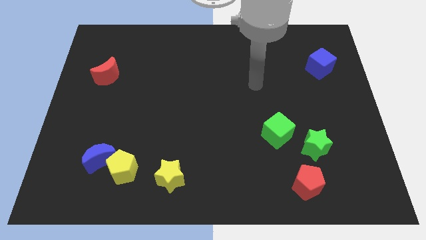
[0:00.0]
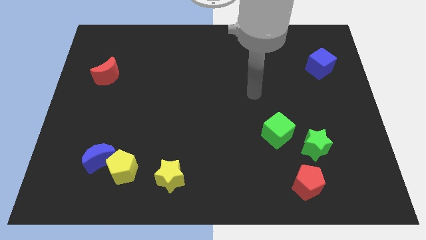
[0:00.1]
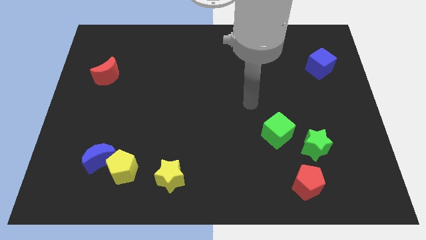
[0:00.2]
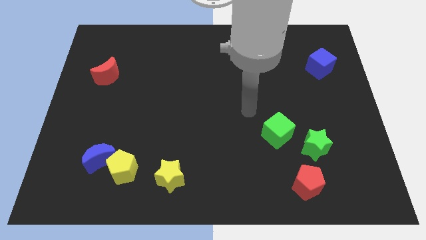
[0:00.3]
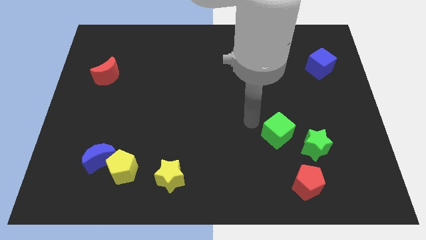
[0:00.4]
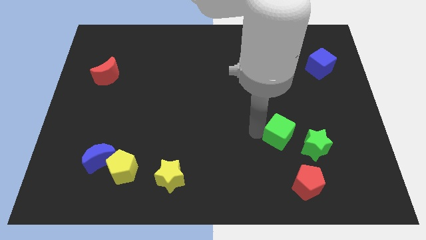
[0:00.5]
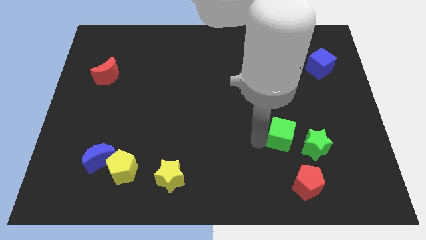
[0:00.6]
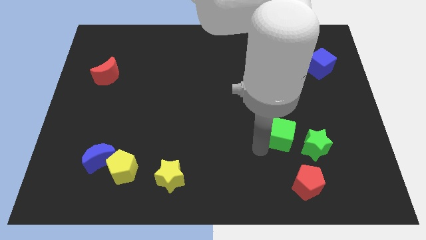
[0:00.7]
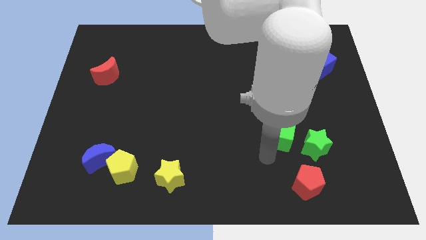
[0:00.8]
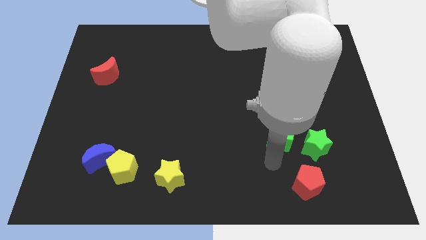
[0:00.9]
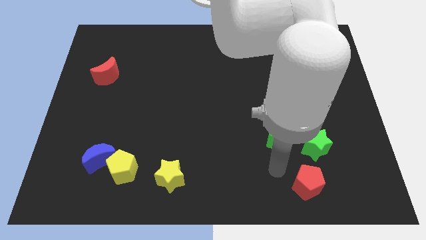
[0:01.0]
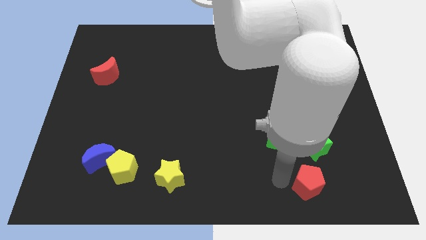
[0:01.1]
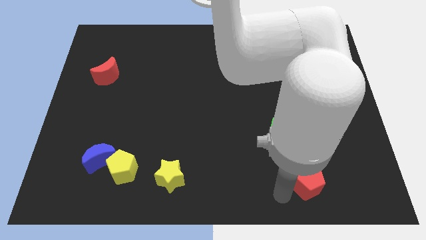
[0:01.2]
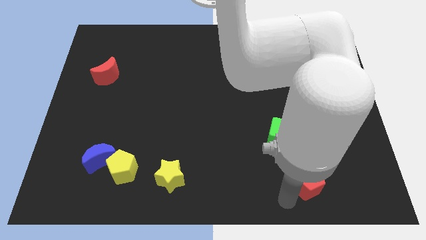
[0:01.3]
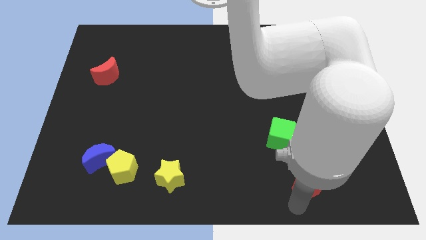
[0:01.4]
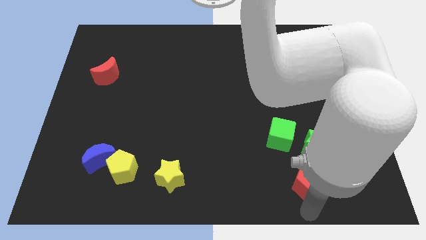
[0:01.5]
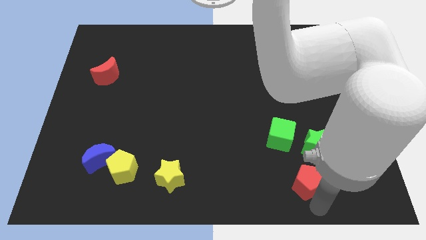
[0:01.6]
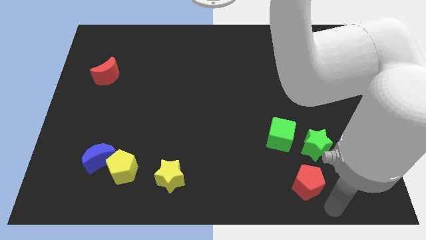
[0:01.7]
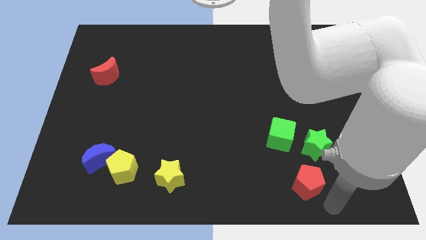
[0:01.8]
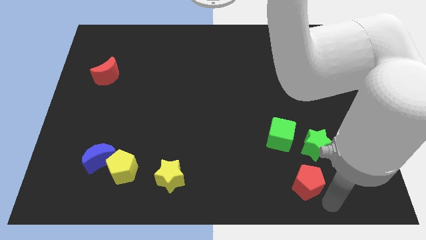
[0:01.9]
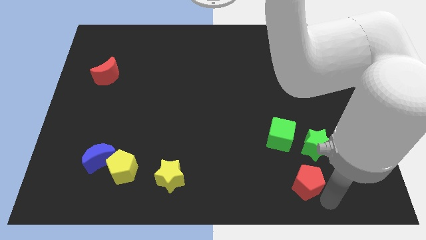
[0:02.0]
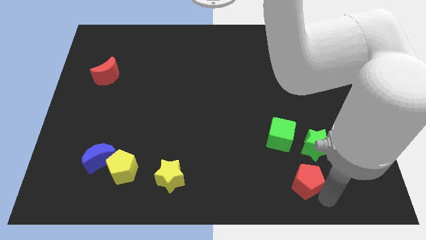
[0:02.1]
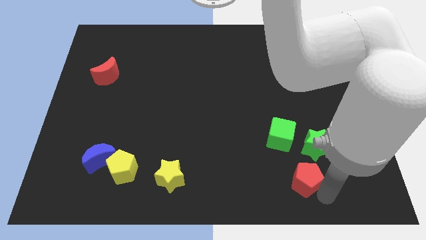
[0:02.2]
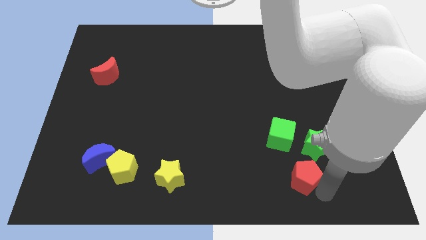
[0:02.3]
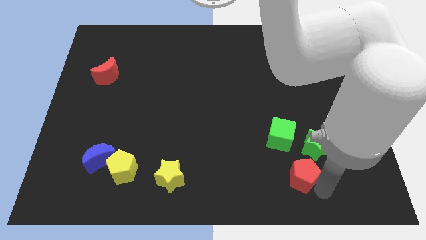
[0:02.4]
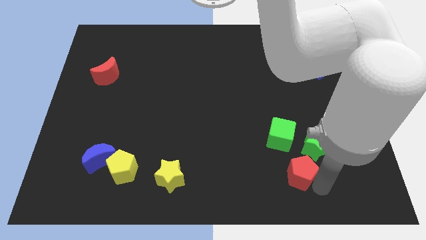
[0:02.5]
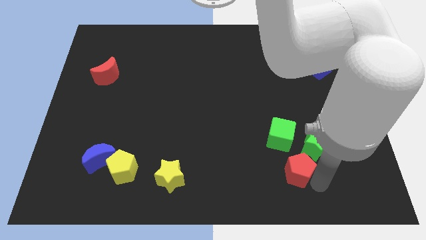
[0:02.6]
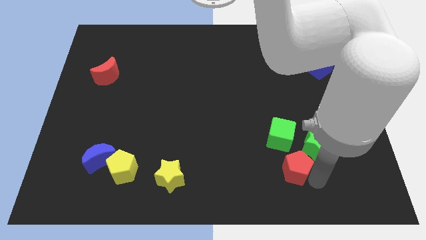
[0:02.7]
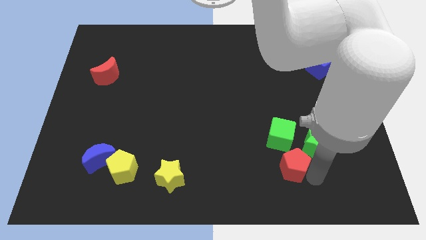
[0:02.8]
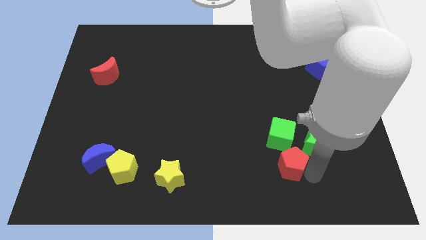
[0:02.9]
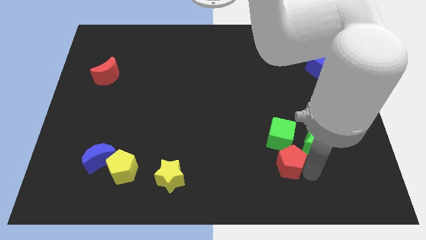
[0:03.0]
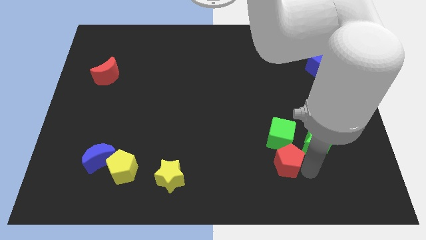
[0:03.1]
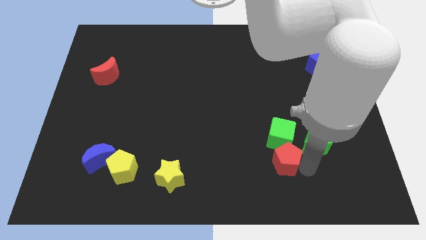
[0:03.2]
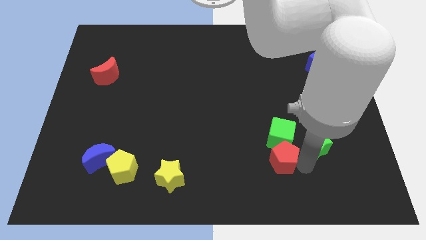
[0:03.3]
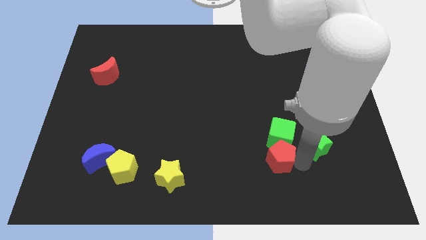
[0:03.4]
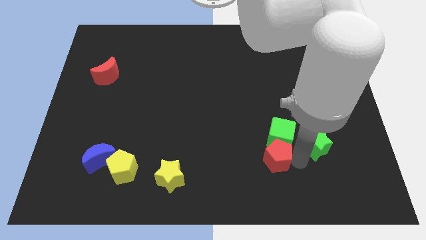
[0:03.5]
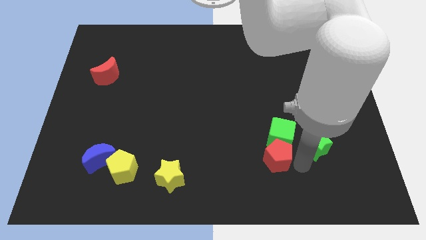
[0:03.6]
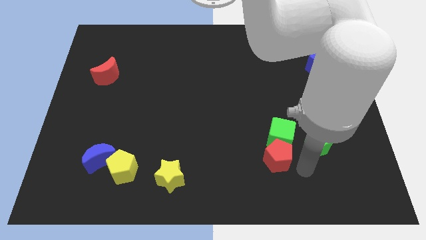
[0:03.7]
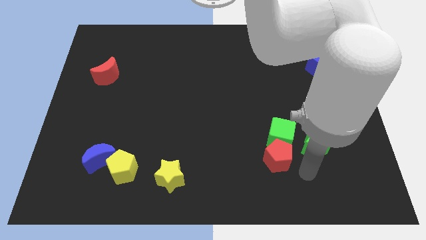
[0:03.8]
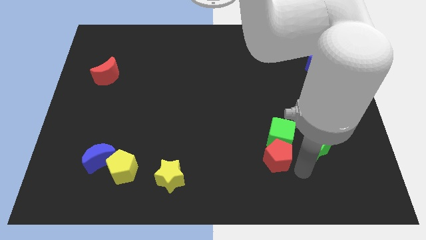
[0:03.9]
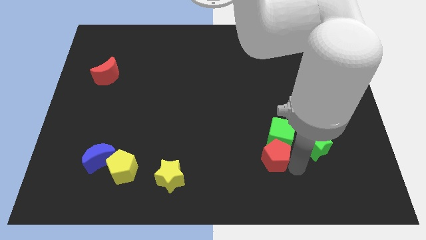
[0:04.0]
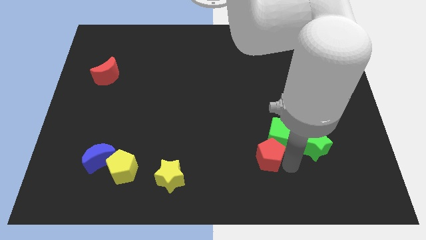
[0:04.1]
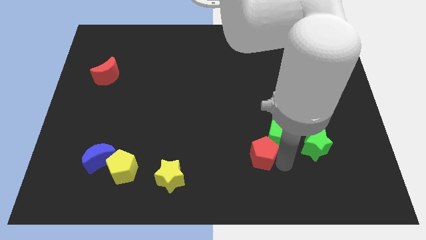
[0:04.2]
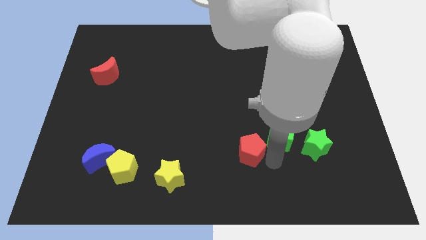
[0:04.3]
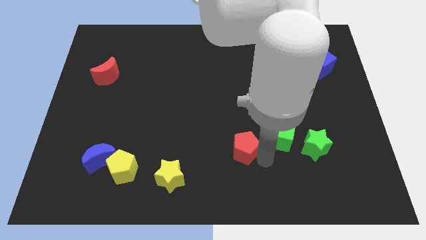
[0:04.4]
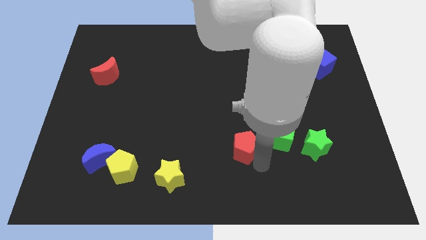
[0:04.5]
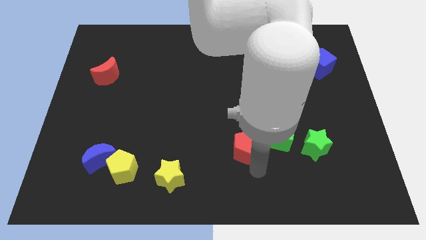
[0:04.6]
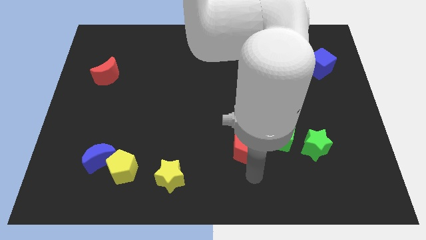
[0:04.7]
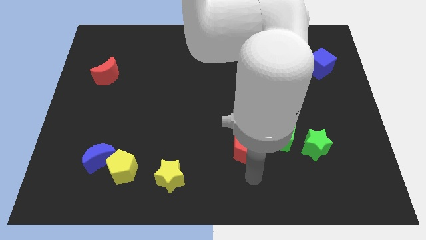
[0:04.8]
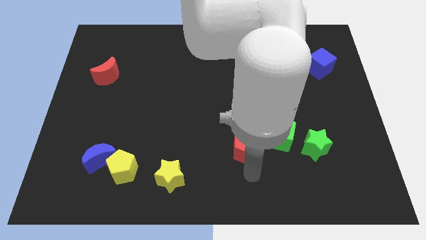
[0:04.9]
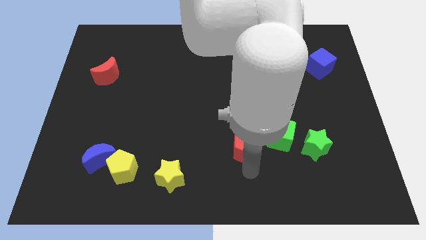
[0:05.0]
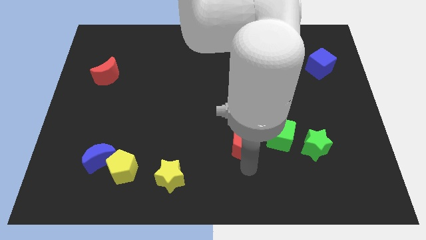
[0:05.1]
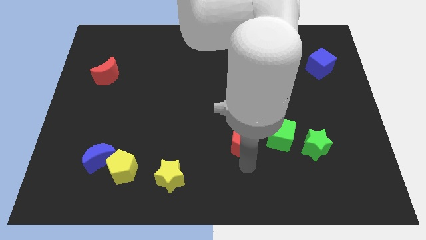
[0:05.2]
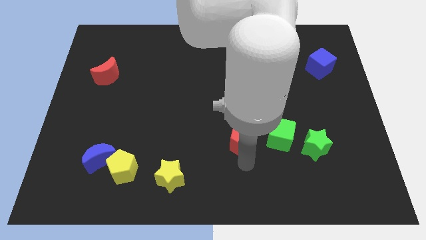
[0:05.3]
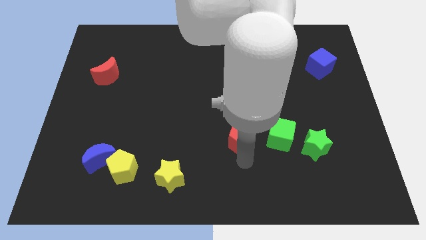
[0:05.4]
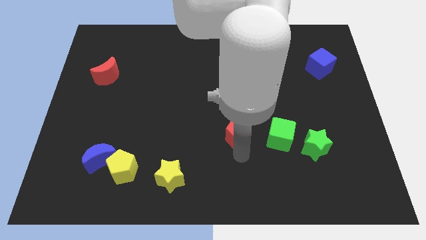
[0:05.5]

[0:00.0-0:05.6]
move the red pentagon to the middle of the board

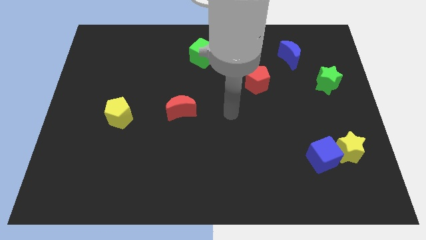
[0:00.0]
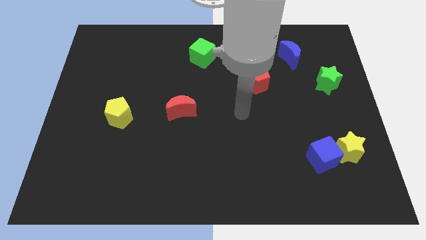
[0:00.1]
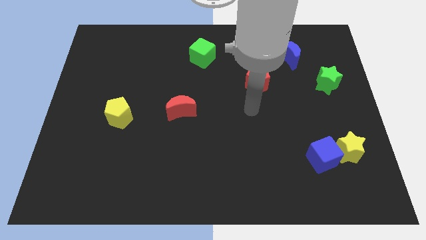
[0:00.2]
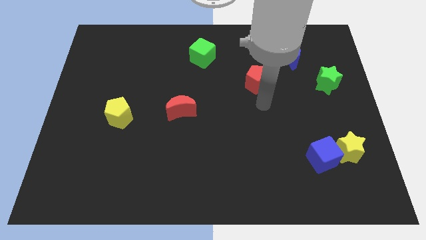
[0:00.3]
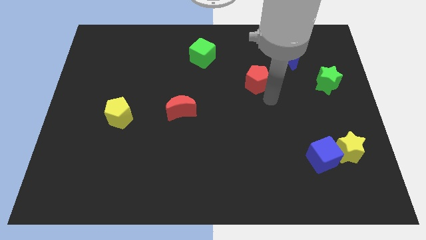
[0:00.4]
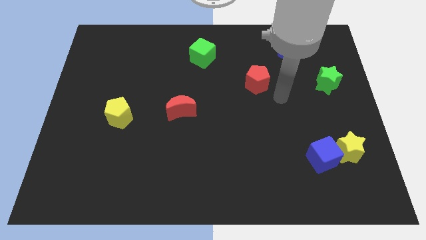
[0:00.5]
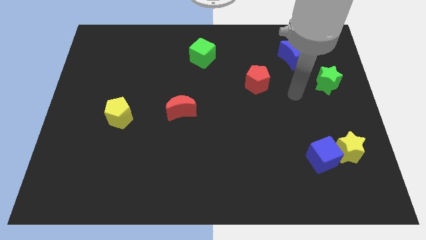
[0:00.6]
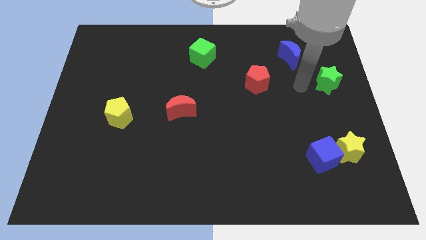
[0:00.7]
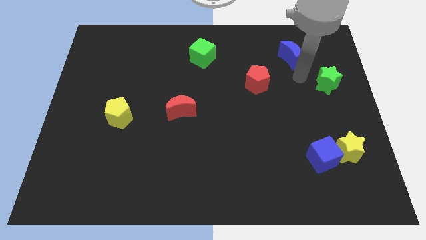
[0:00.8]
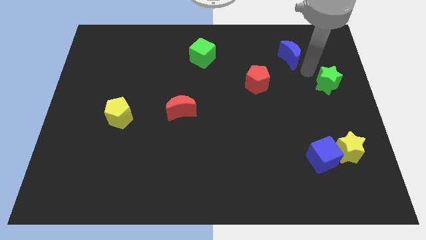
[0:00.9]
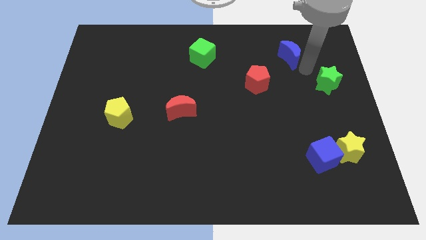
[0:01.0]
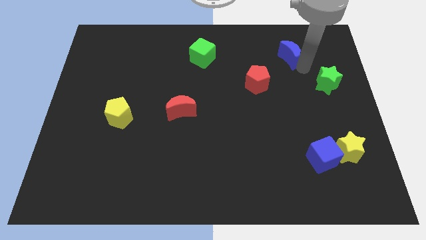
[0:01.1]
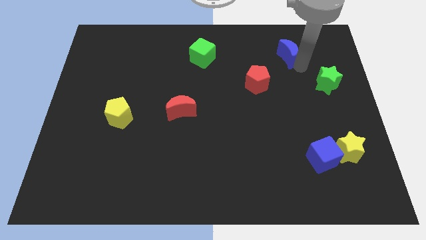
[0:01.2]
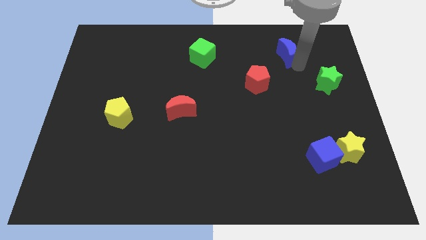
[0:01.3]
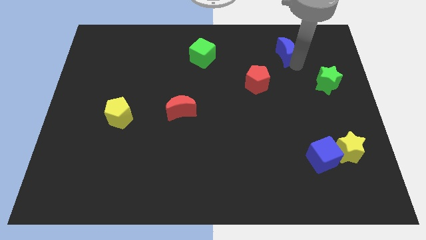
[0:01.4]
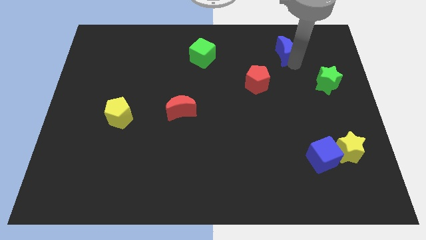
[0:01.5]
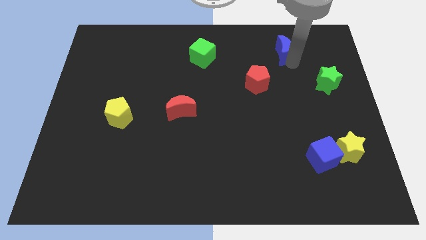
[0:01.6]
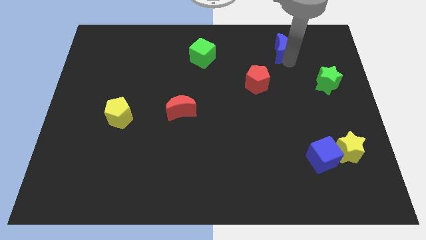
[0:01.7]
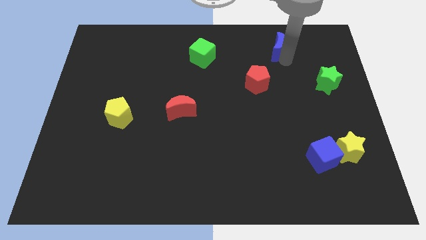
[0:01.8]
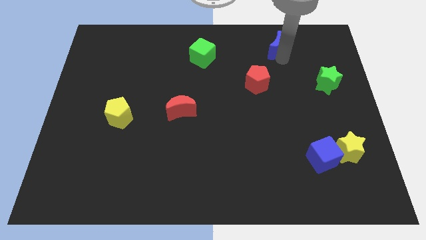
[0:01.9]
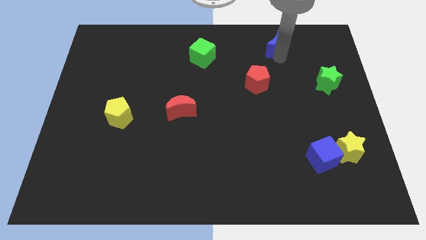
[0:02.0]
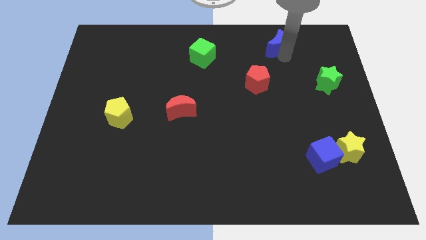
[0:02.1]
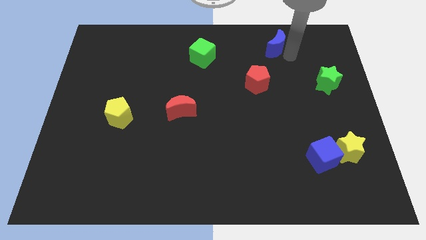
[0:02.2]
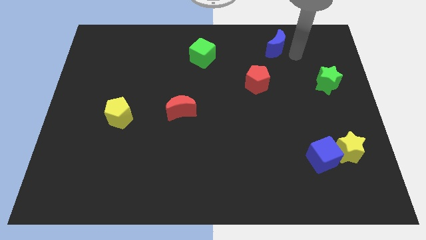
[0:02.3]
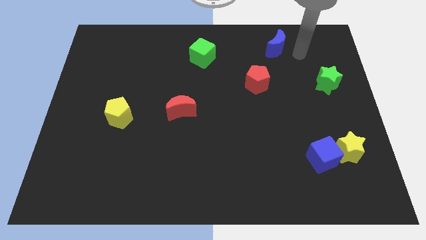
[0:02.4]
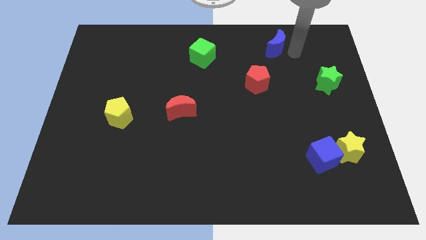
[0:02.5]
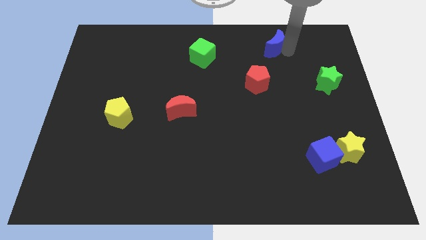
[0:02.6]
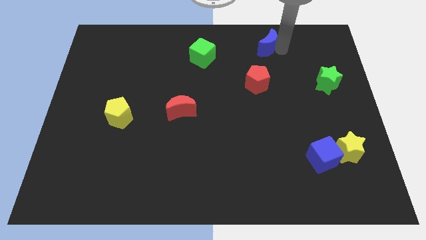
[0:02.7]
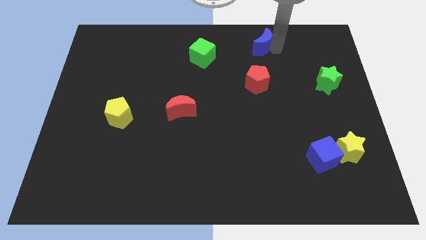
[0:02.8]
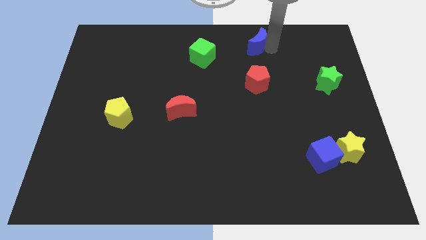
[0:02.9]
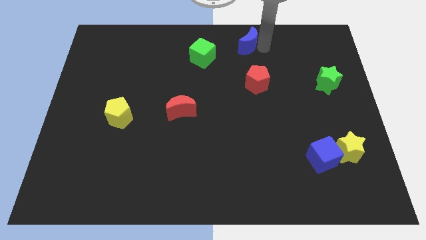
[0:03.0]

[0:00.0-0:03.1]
put the blue moon to the top side
